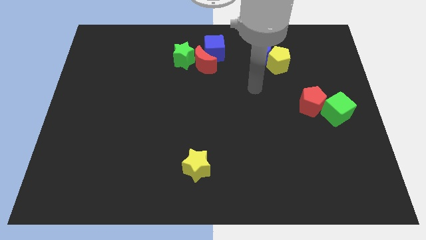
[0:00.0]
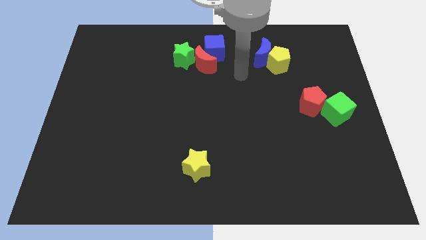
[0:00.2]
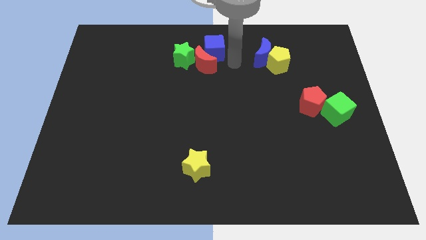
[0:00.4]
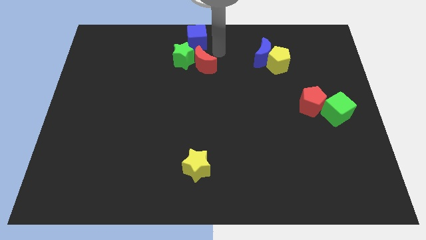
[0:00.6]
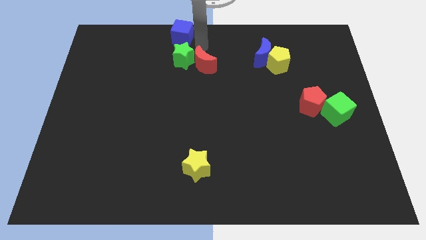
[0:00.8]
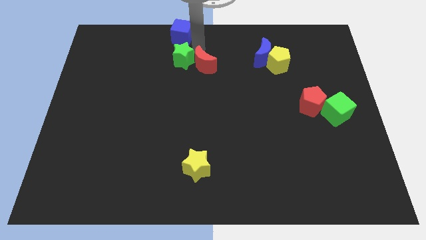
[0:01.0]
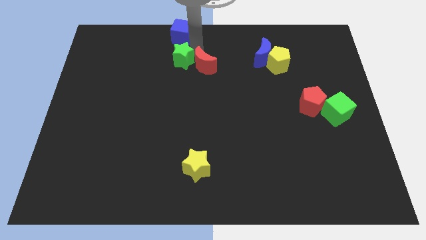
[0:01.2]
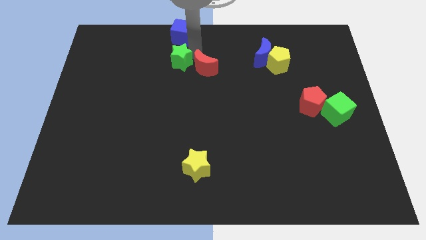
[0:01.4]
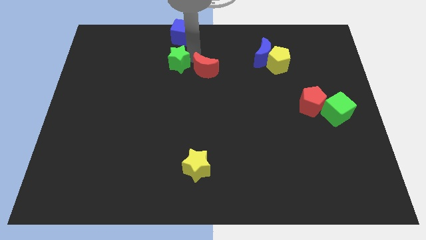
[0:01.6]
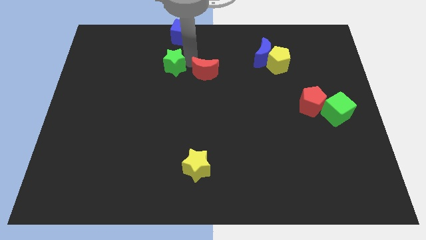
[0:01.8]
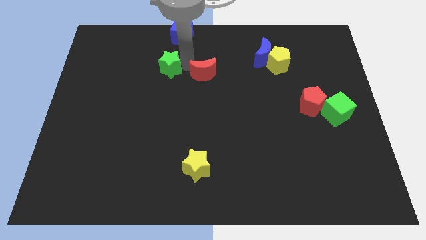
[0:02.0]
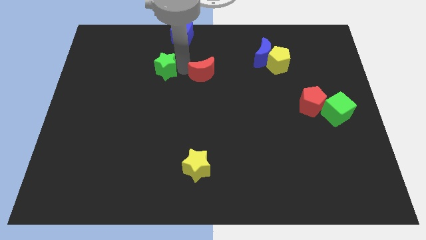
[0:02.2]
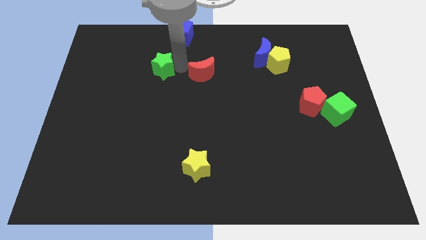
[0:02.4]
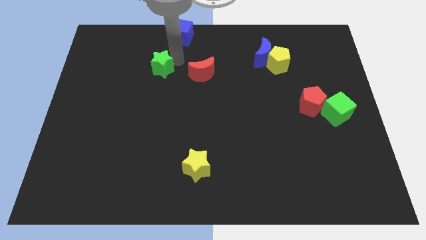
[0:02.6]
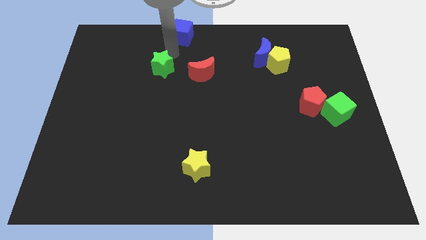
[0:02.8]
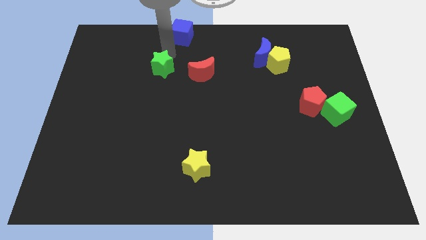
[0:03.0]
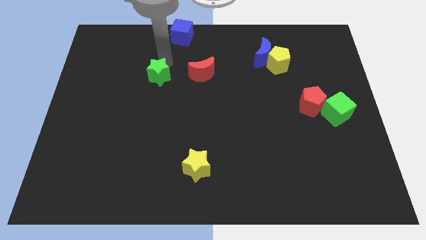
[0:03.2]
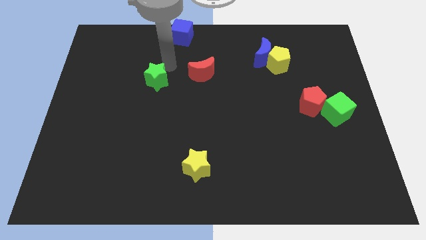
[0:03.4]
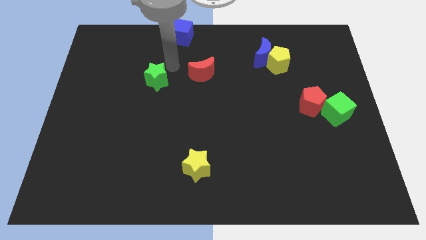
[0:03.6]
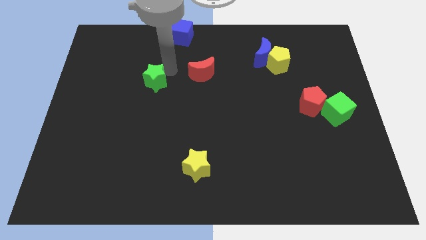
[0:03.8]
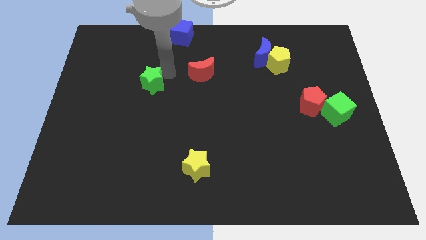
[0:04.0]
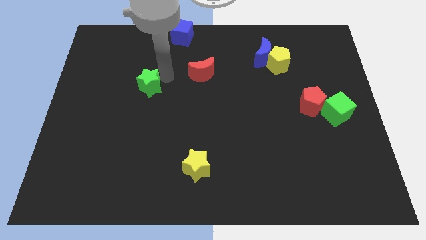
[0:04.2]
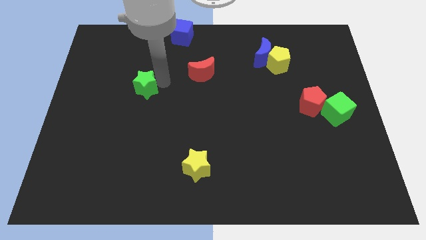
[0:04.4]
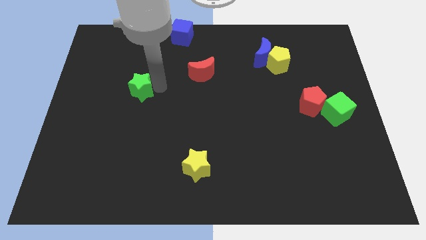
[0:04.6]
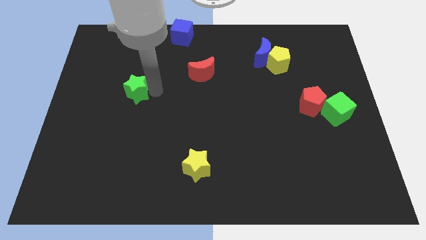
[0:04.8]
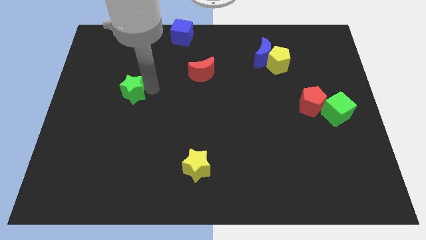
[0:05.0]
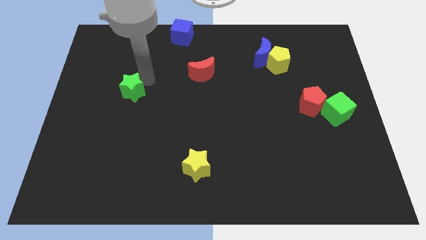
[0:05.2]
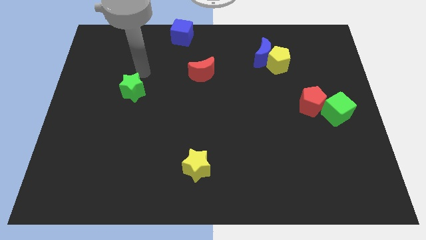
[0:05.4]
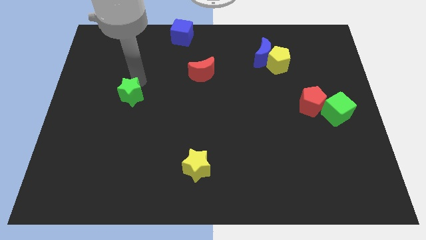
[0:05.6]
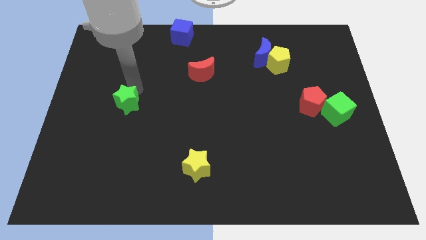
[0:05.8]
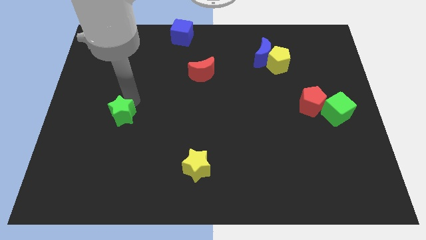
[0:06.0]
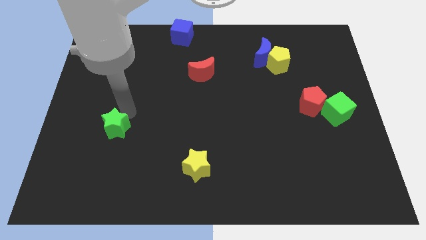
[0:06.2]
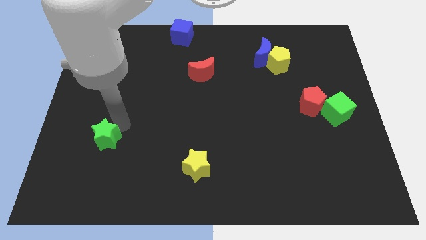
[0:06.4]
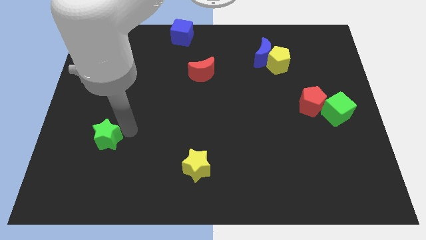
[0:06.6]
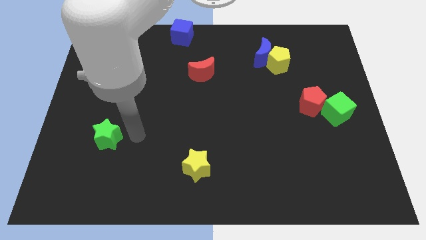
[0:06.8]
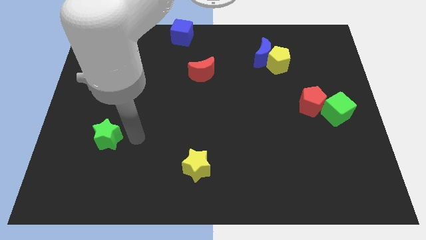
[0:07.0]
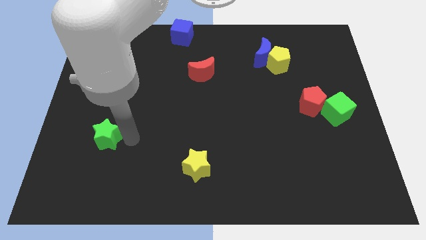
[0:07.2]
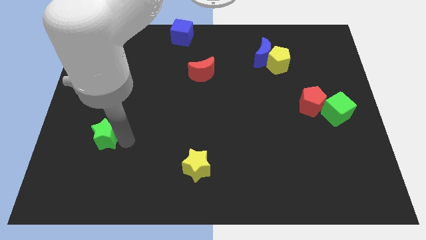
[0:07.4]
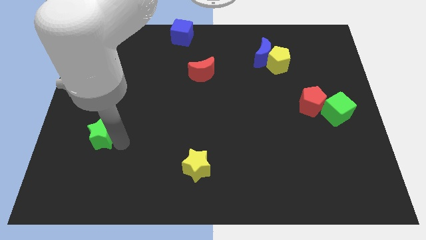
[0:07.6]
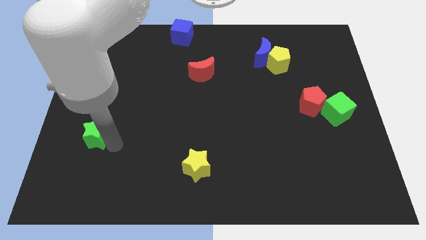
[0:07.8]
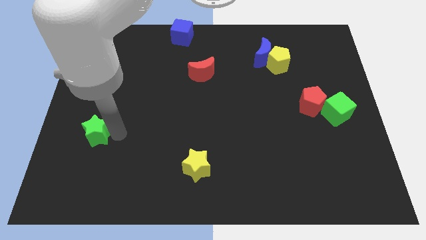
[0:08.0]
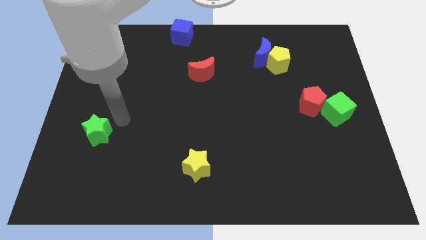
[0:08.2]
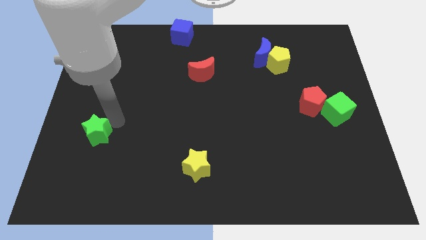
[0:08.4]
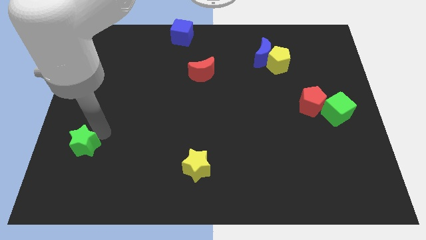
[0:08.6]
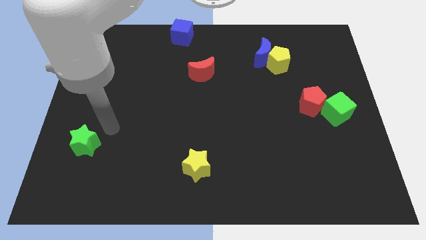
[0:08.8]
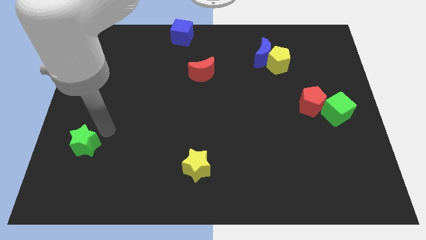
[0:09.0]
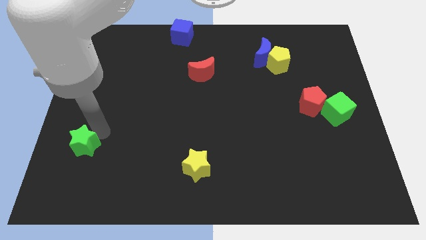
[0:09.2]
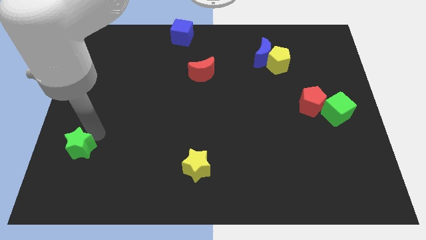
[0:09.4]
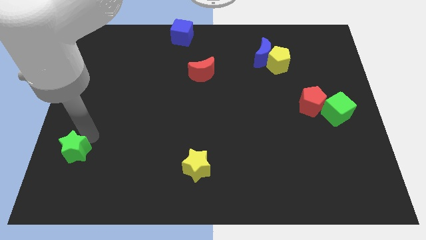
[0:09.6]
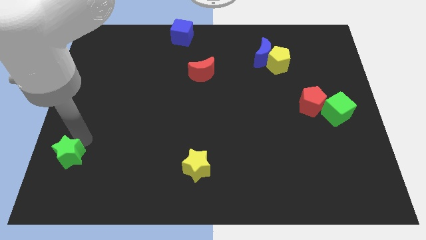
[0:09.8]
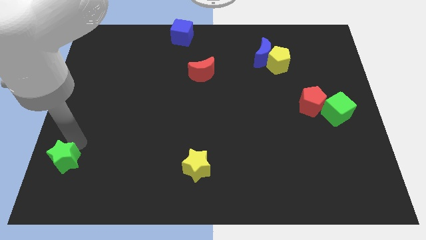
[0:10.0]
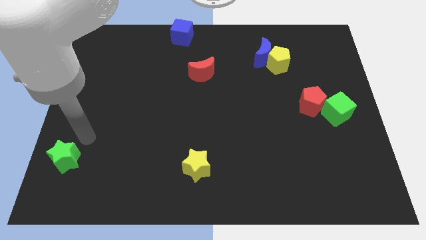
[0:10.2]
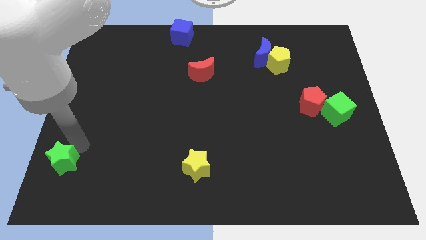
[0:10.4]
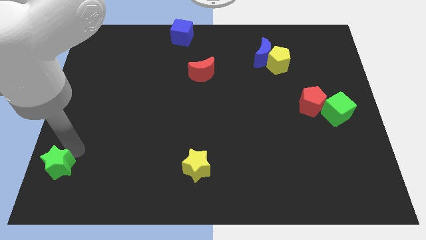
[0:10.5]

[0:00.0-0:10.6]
move the green star to the bottom left of the board

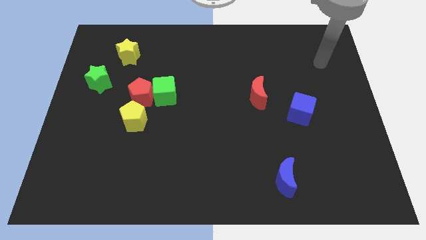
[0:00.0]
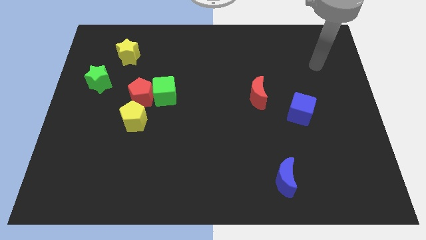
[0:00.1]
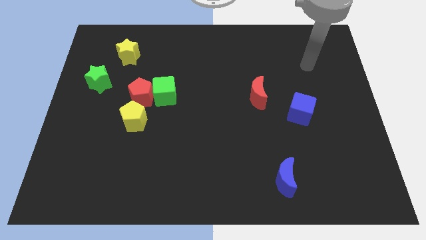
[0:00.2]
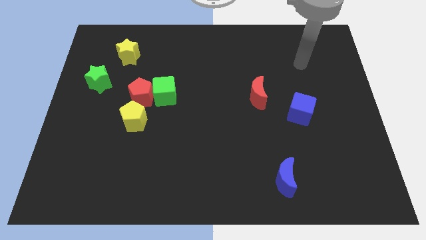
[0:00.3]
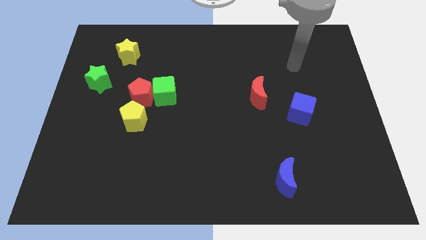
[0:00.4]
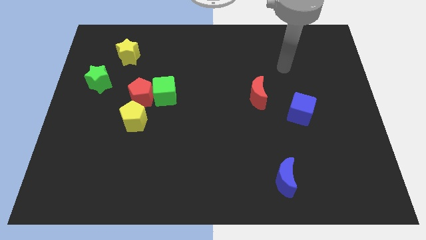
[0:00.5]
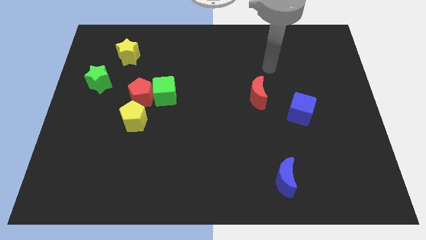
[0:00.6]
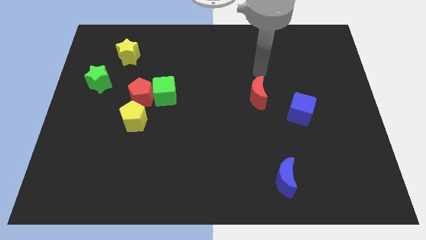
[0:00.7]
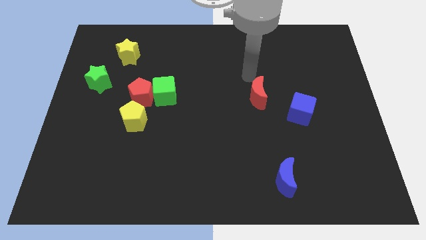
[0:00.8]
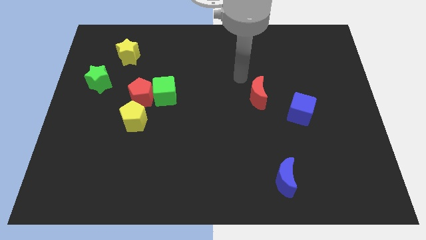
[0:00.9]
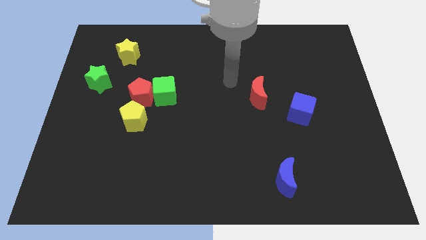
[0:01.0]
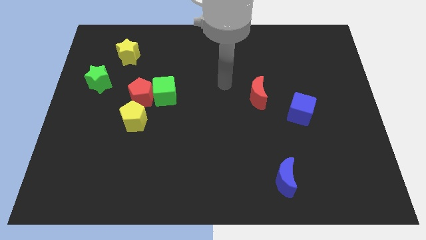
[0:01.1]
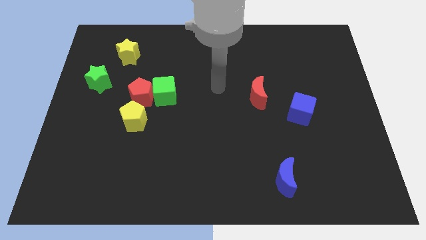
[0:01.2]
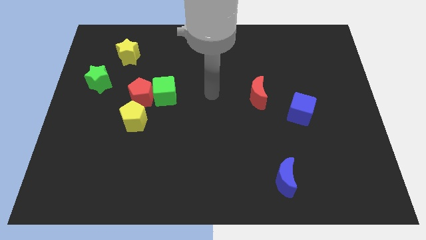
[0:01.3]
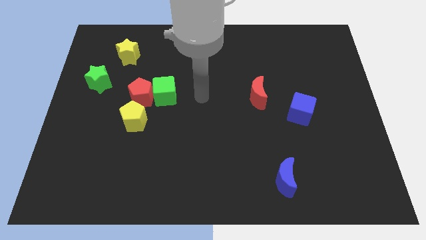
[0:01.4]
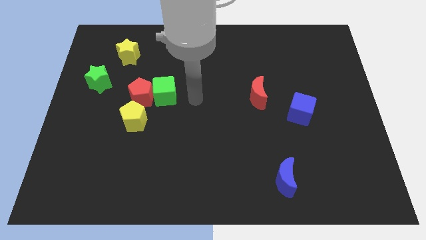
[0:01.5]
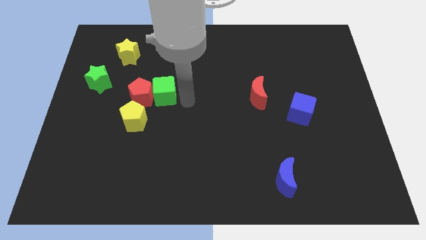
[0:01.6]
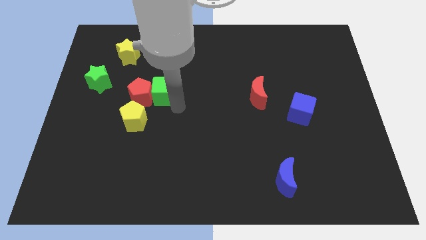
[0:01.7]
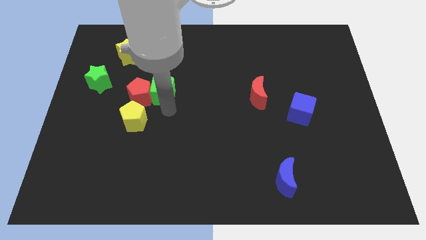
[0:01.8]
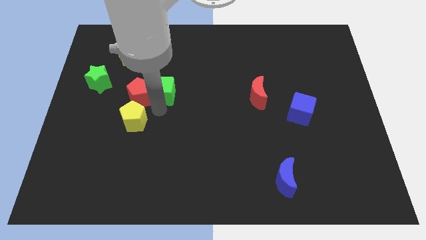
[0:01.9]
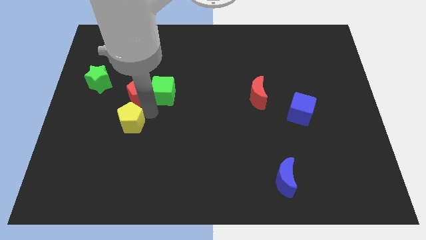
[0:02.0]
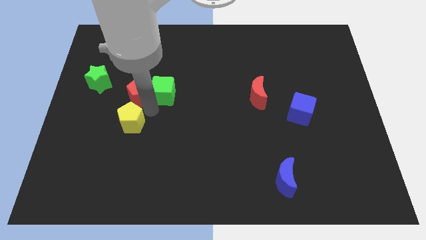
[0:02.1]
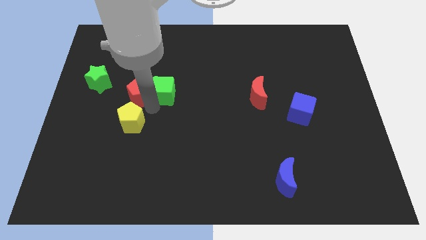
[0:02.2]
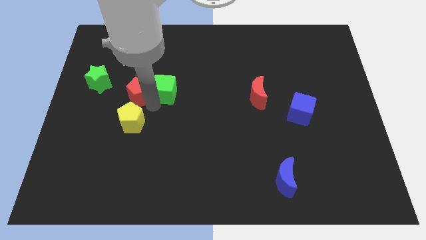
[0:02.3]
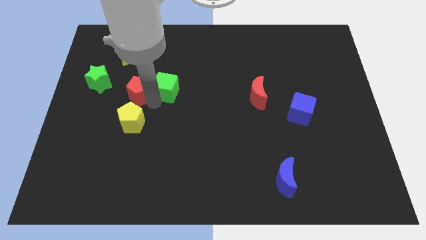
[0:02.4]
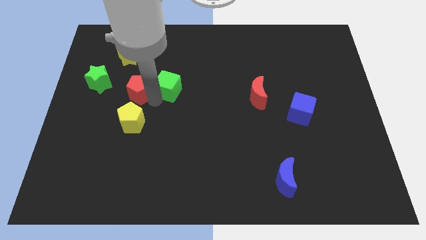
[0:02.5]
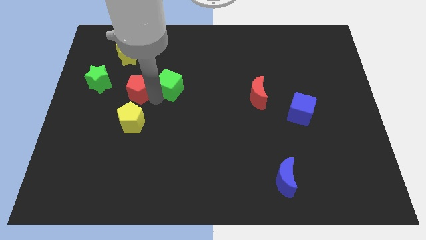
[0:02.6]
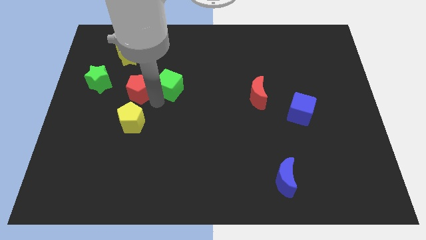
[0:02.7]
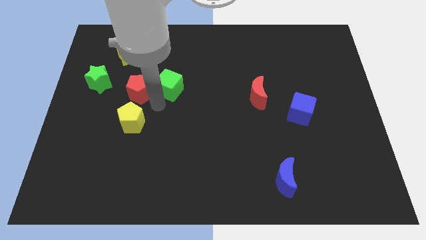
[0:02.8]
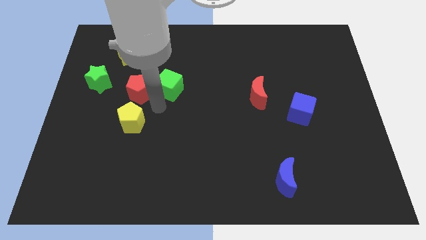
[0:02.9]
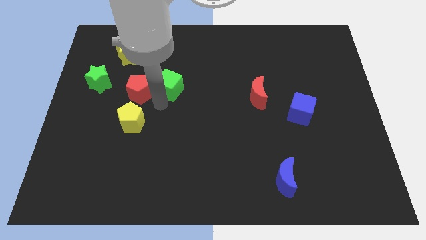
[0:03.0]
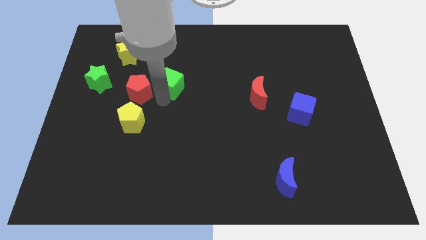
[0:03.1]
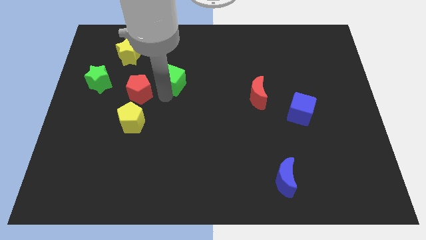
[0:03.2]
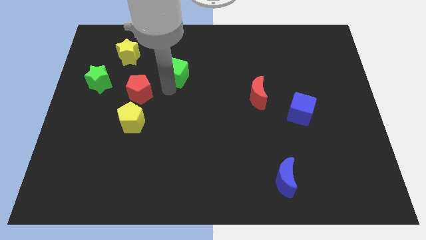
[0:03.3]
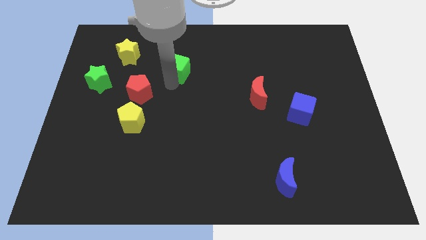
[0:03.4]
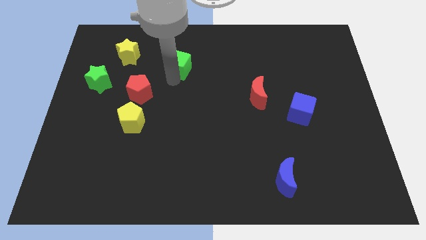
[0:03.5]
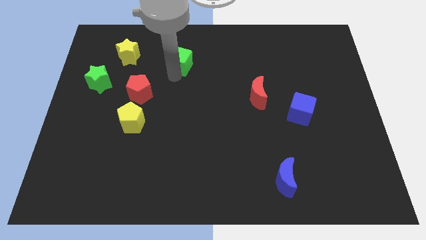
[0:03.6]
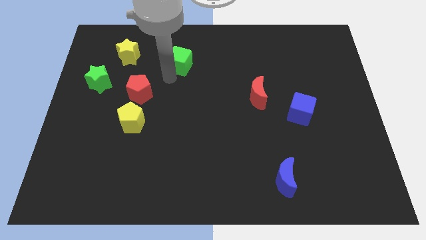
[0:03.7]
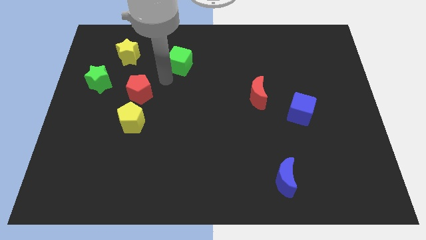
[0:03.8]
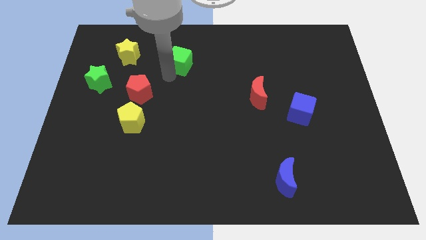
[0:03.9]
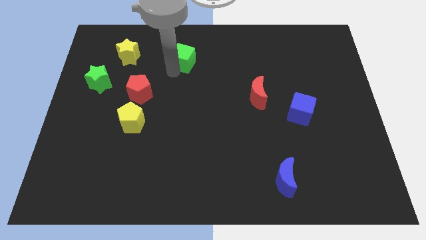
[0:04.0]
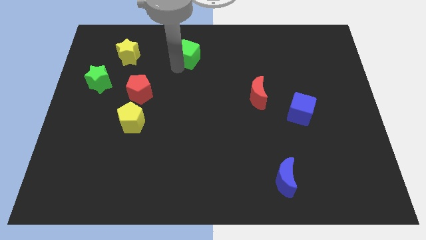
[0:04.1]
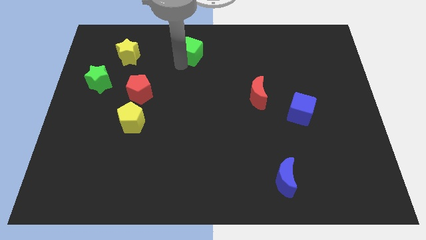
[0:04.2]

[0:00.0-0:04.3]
move the green cube to the top side
